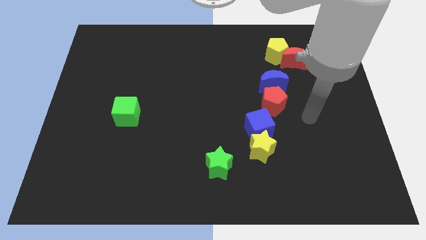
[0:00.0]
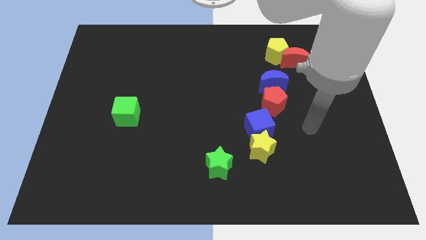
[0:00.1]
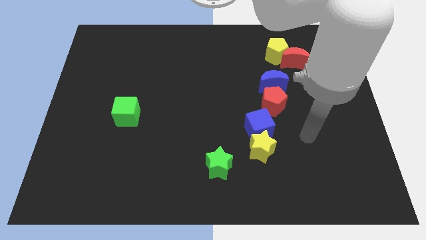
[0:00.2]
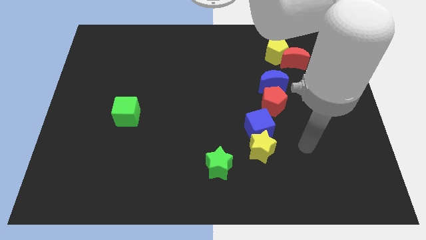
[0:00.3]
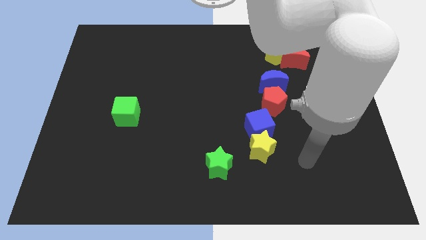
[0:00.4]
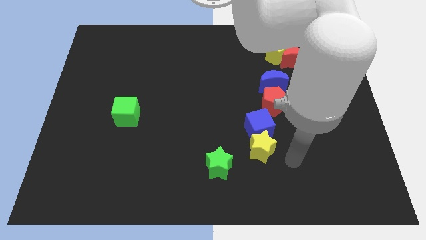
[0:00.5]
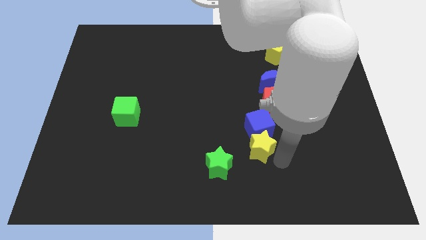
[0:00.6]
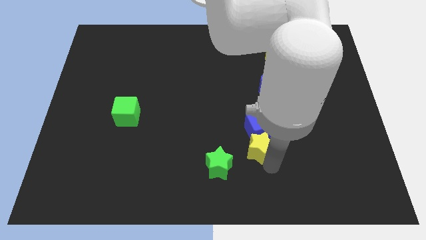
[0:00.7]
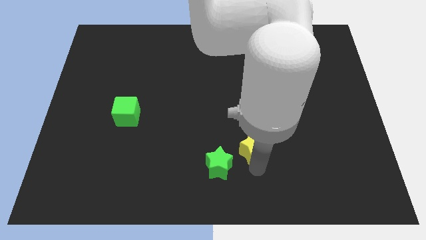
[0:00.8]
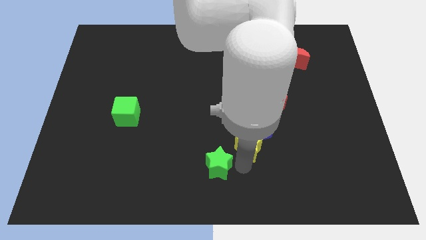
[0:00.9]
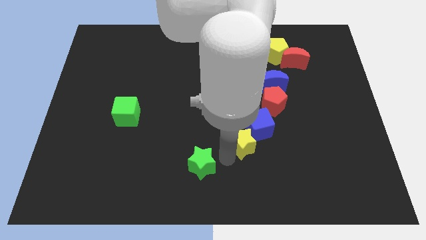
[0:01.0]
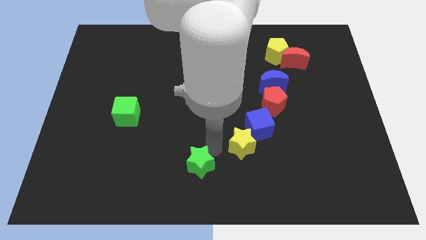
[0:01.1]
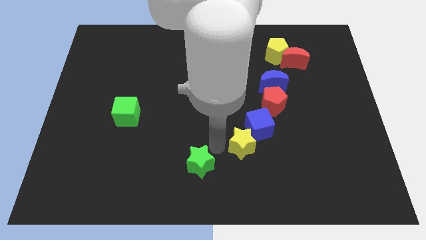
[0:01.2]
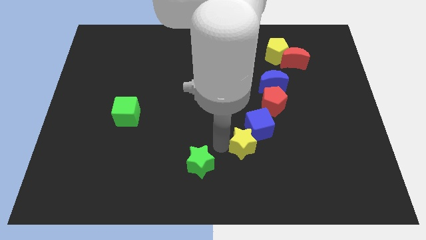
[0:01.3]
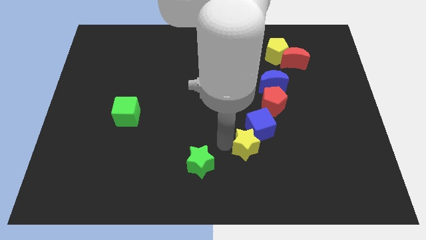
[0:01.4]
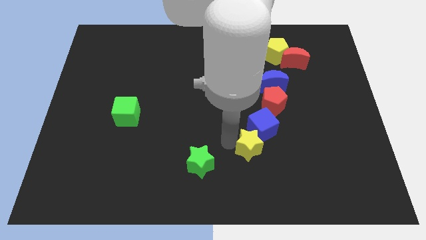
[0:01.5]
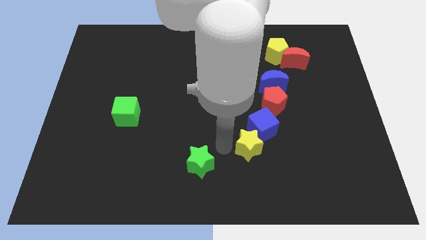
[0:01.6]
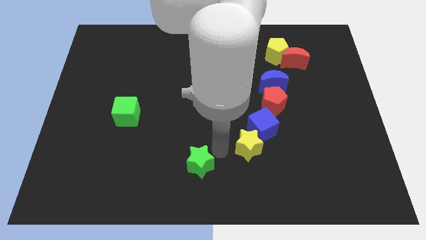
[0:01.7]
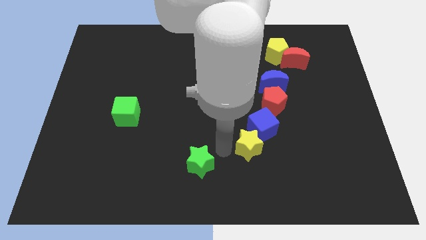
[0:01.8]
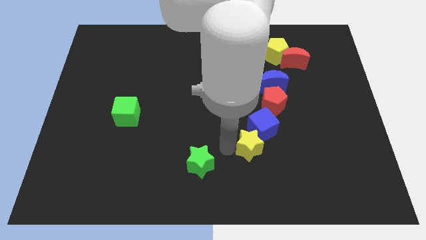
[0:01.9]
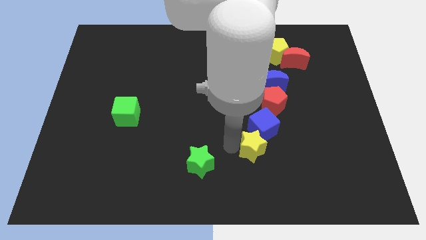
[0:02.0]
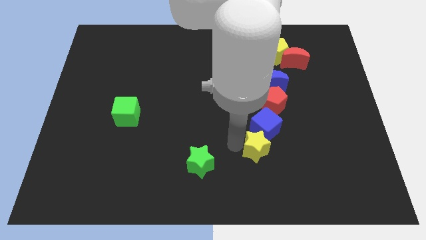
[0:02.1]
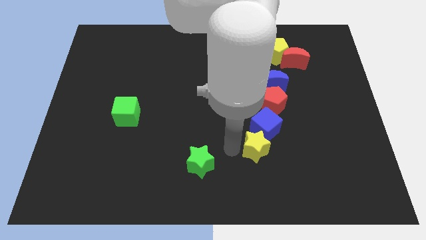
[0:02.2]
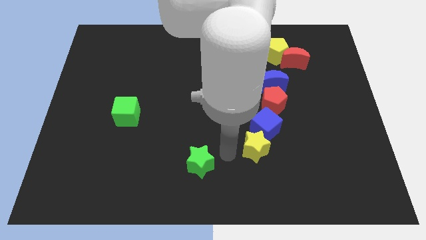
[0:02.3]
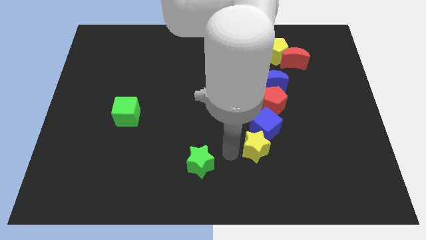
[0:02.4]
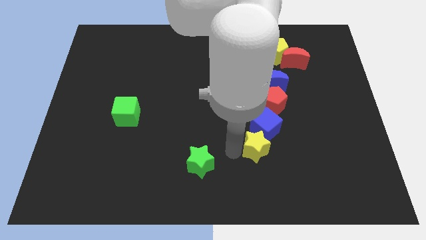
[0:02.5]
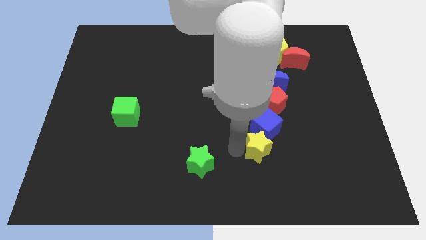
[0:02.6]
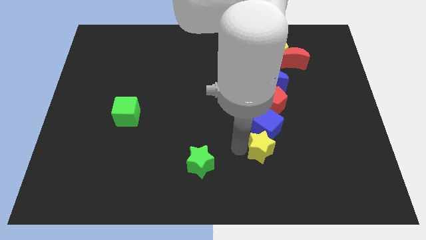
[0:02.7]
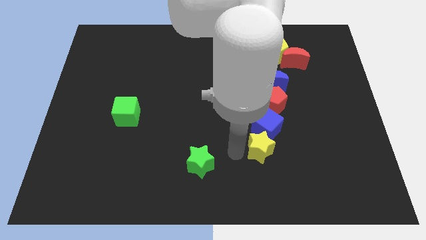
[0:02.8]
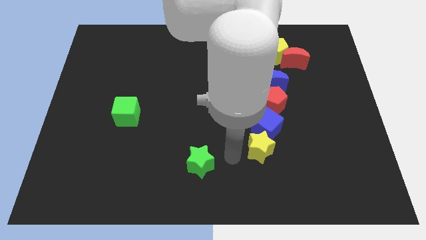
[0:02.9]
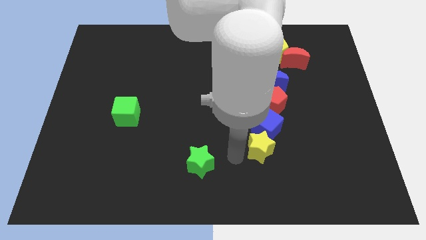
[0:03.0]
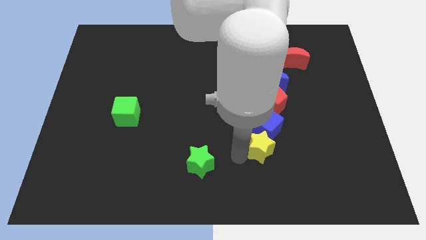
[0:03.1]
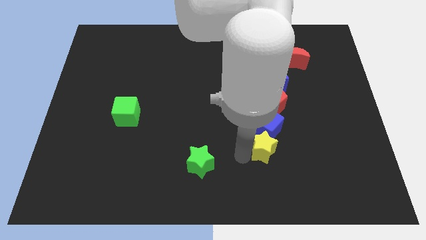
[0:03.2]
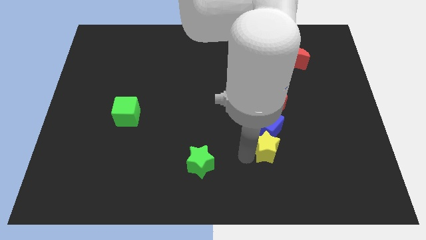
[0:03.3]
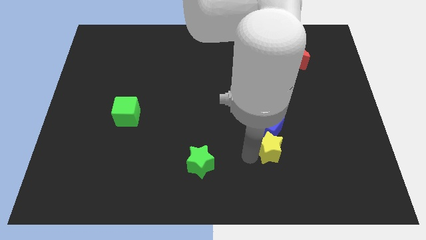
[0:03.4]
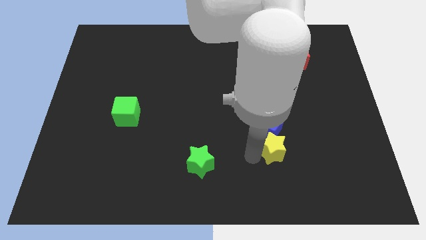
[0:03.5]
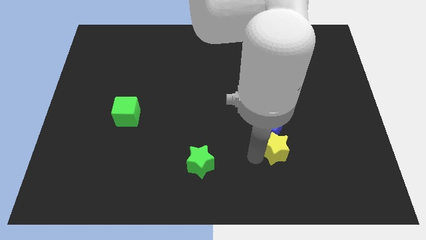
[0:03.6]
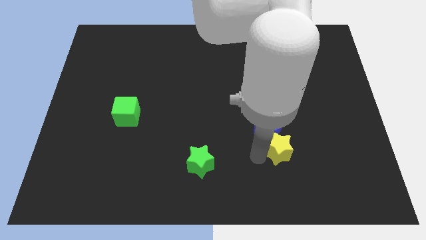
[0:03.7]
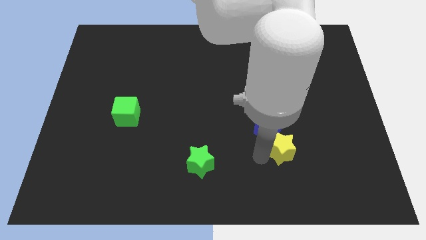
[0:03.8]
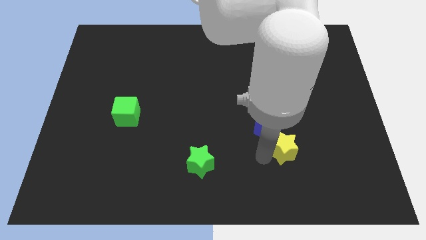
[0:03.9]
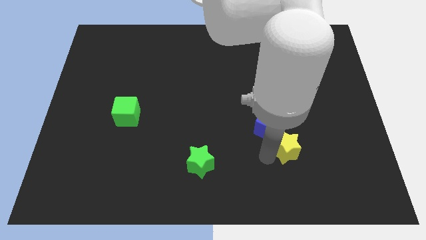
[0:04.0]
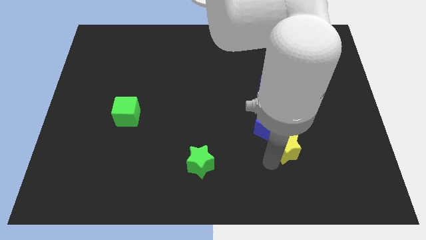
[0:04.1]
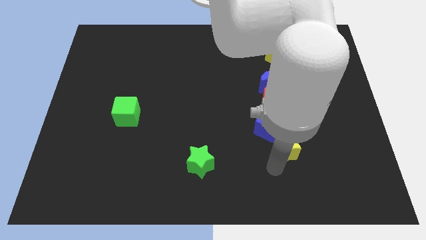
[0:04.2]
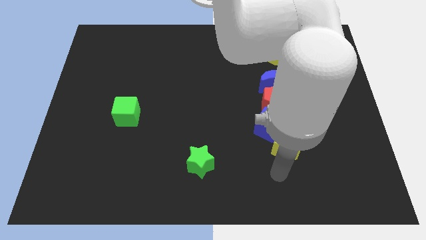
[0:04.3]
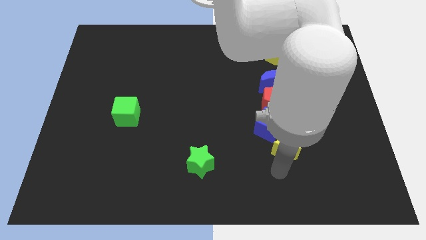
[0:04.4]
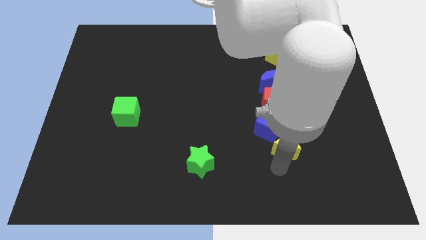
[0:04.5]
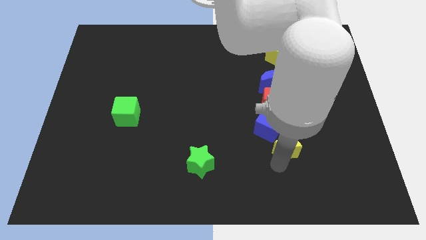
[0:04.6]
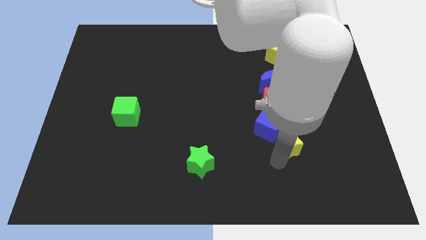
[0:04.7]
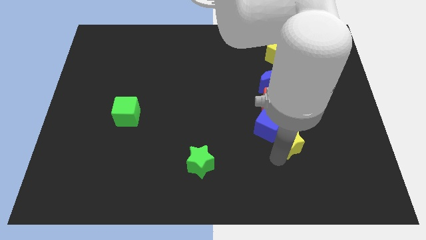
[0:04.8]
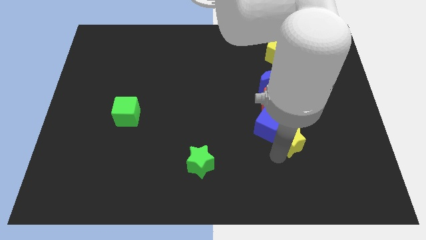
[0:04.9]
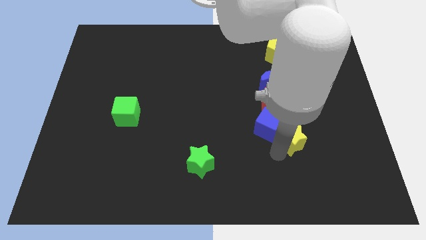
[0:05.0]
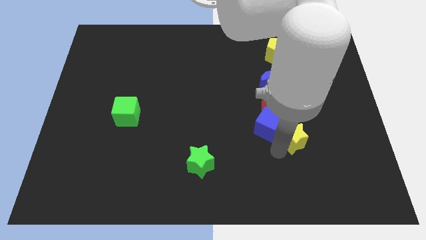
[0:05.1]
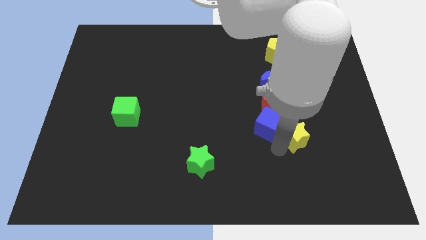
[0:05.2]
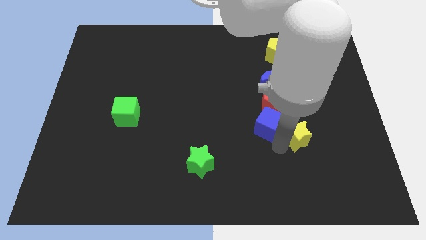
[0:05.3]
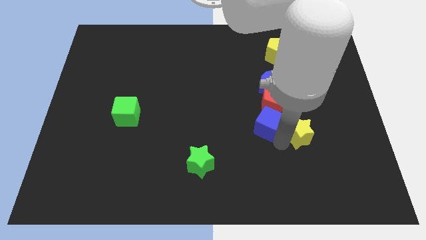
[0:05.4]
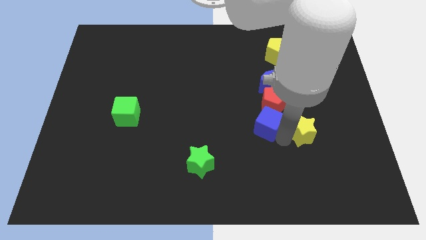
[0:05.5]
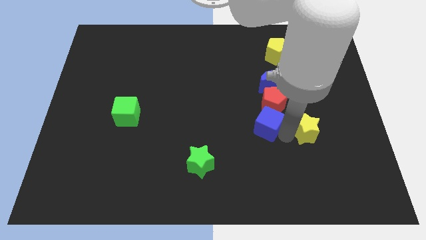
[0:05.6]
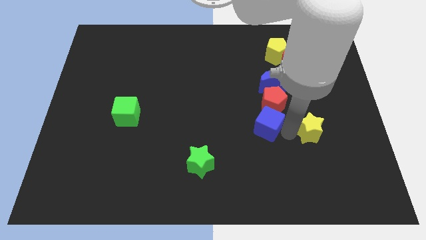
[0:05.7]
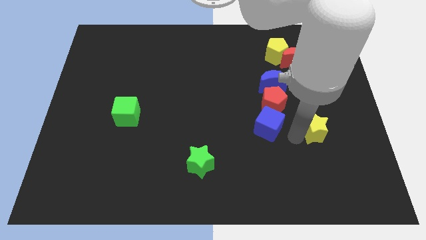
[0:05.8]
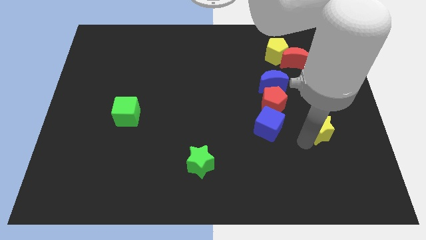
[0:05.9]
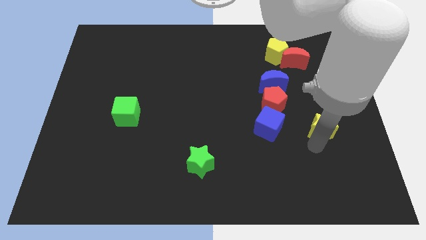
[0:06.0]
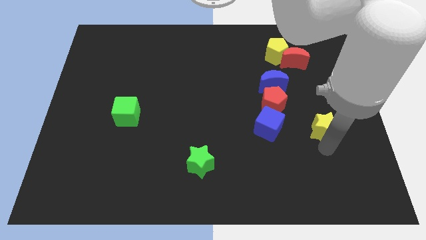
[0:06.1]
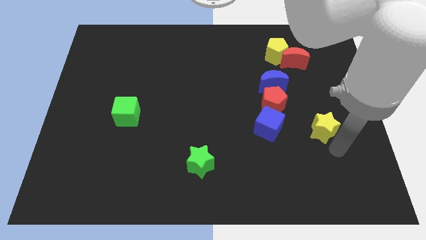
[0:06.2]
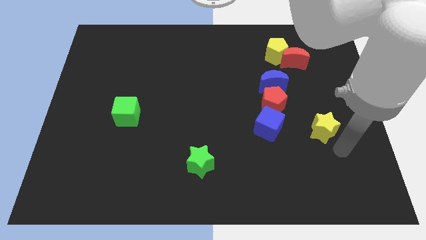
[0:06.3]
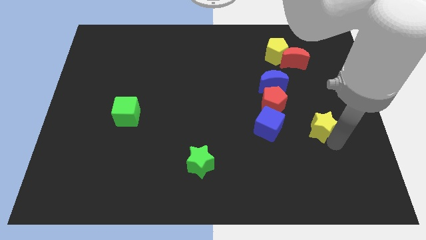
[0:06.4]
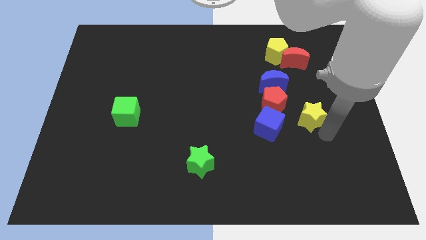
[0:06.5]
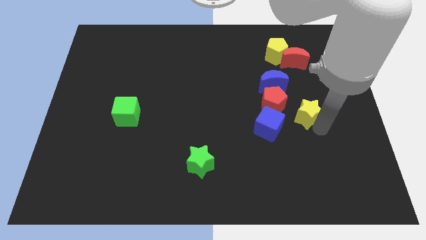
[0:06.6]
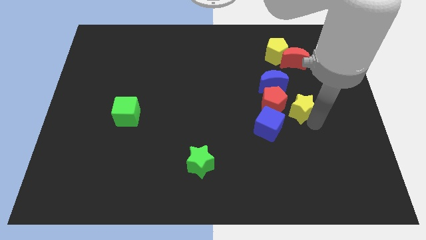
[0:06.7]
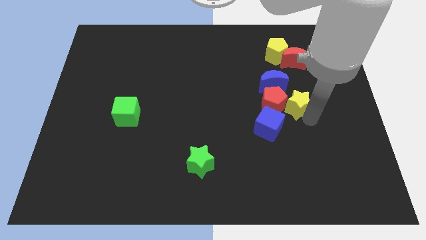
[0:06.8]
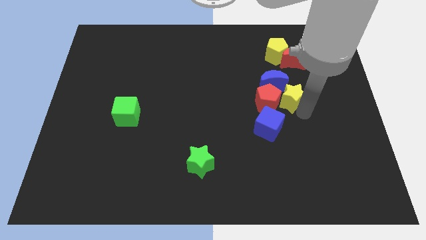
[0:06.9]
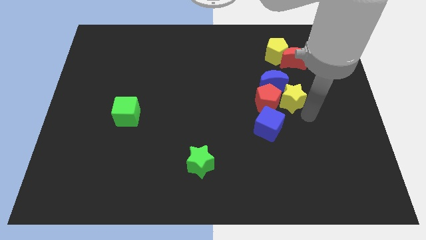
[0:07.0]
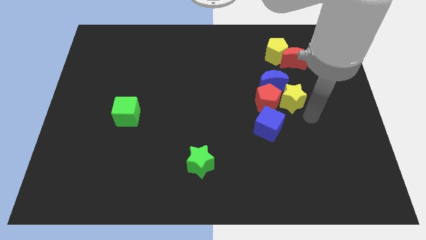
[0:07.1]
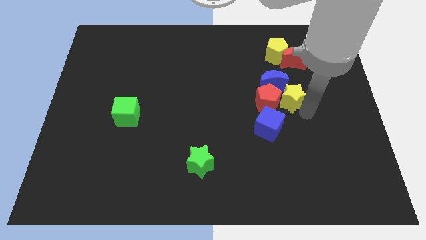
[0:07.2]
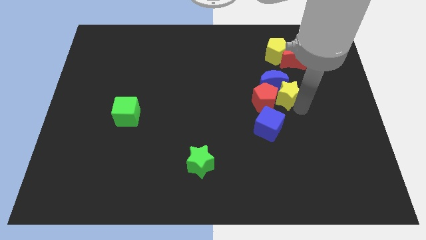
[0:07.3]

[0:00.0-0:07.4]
move the yellow star to the blue moon

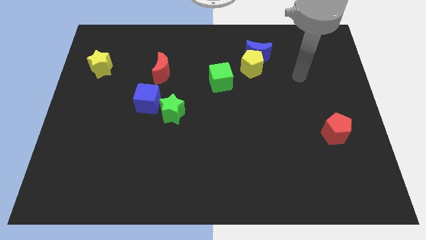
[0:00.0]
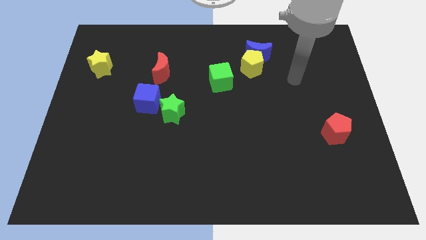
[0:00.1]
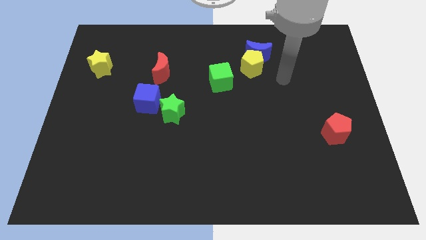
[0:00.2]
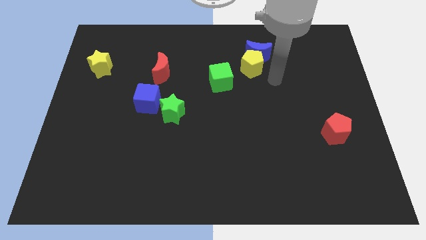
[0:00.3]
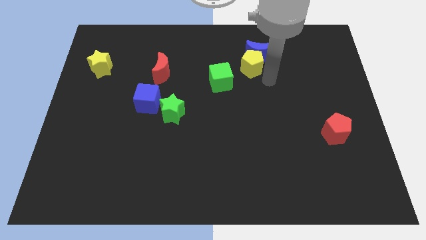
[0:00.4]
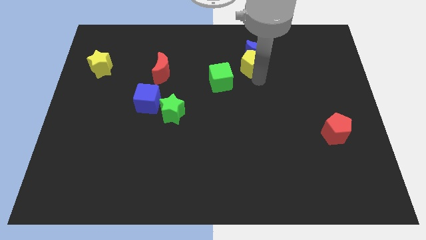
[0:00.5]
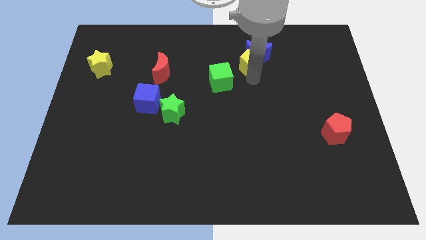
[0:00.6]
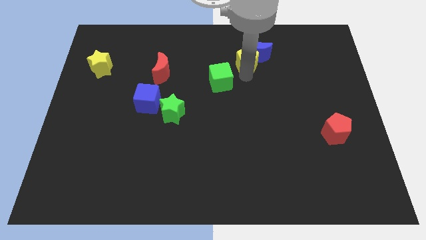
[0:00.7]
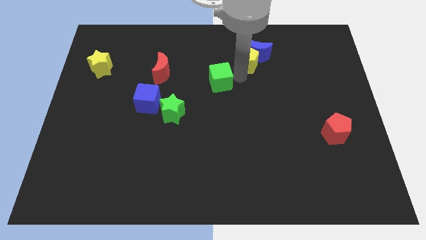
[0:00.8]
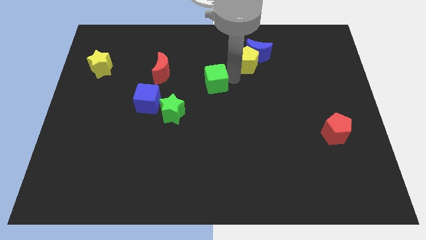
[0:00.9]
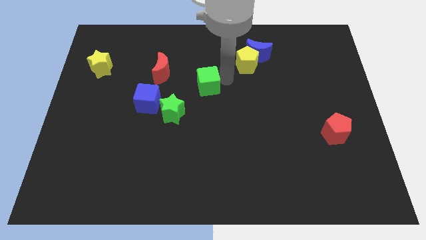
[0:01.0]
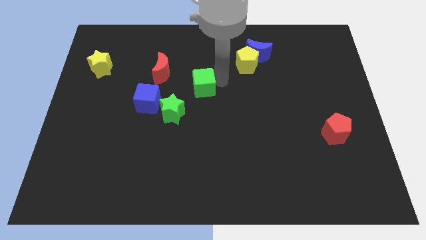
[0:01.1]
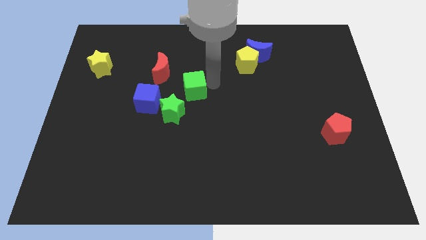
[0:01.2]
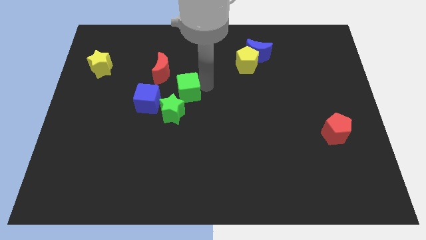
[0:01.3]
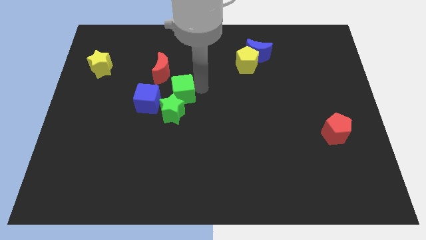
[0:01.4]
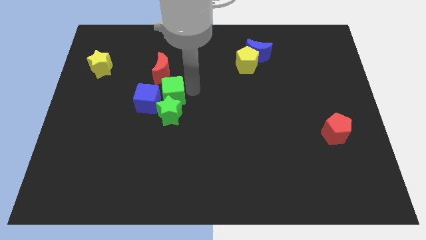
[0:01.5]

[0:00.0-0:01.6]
slide the green cube towards the blue cube
